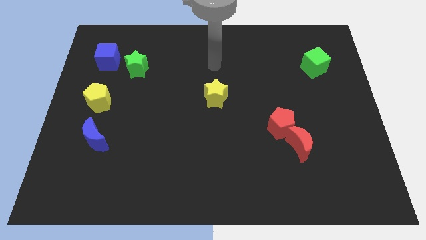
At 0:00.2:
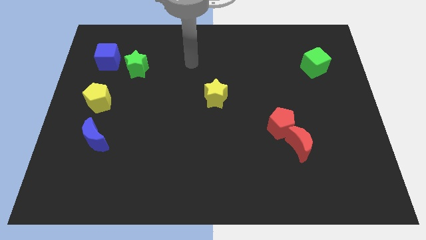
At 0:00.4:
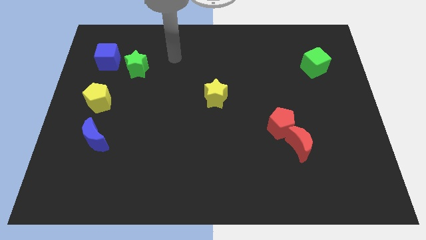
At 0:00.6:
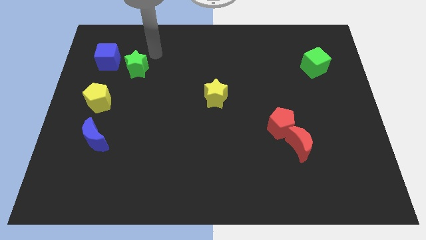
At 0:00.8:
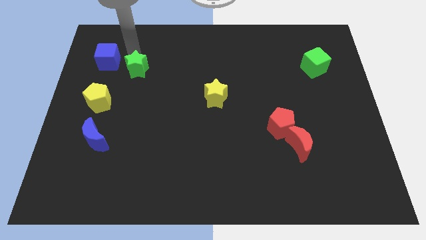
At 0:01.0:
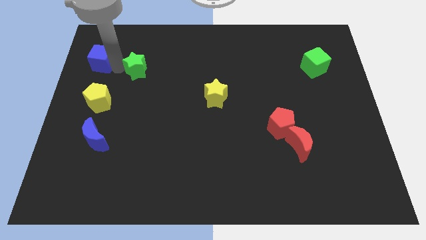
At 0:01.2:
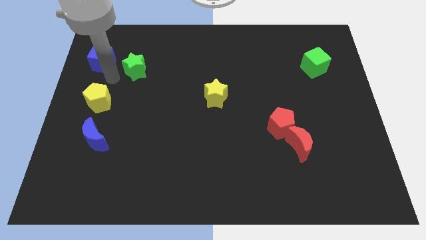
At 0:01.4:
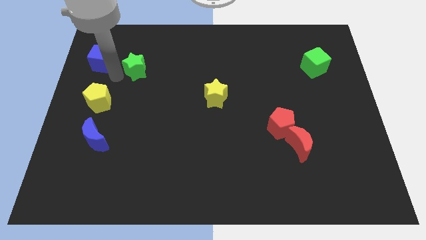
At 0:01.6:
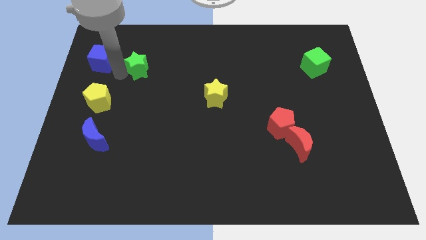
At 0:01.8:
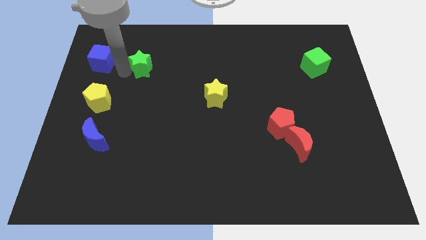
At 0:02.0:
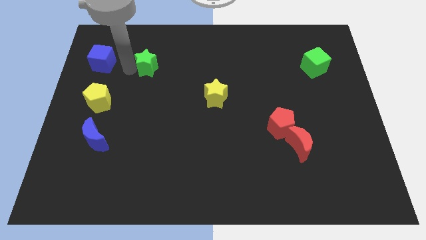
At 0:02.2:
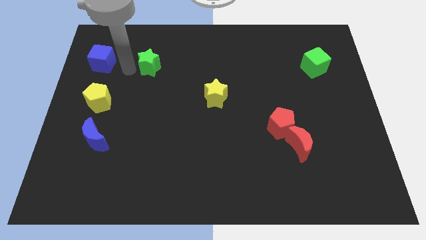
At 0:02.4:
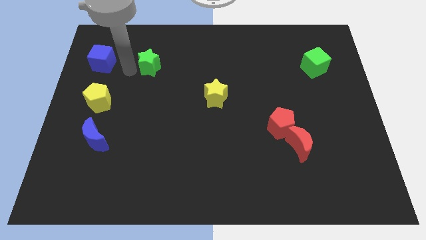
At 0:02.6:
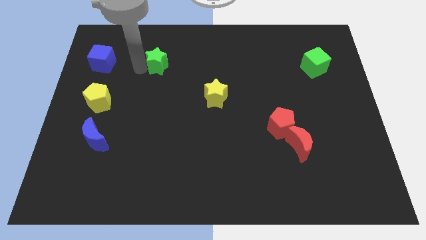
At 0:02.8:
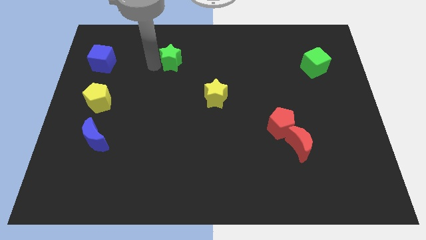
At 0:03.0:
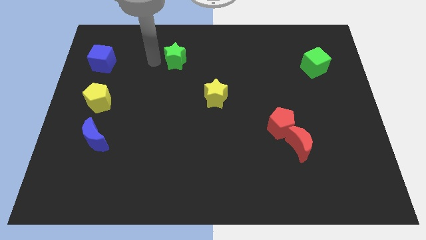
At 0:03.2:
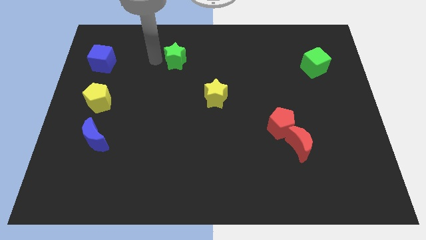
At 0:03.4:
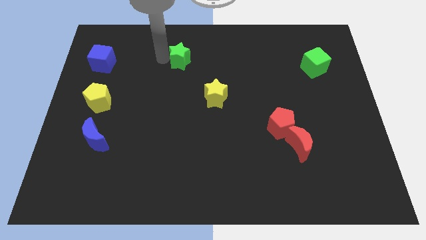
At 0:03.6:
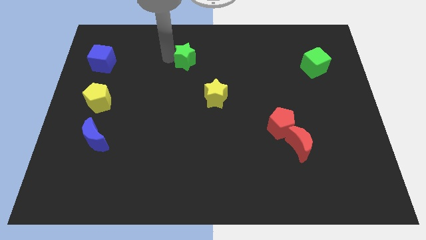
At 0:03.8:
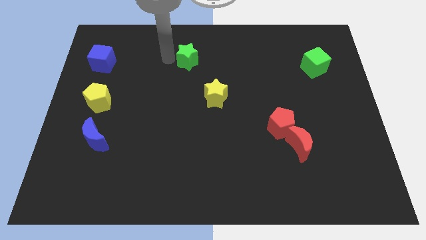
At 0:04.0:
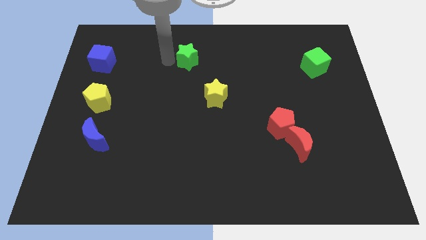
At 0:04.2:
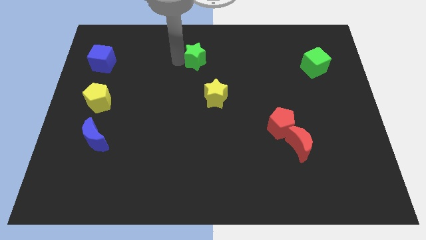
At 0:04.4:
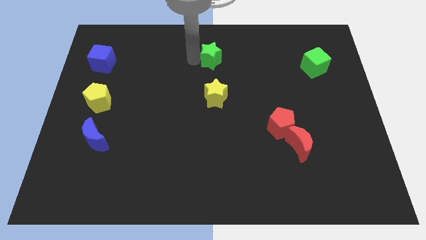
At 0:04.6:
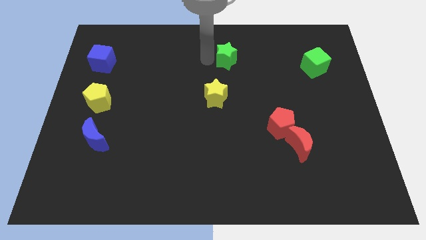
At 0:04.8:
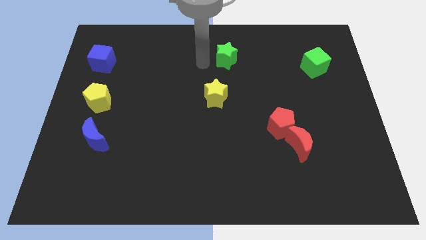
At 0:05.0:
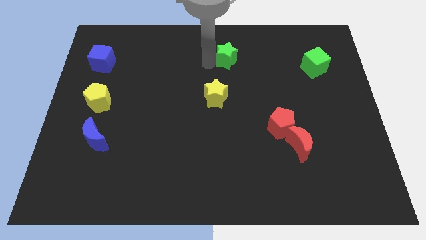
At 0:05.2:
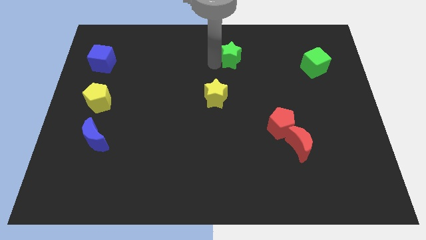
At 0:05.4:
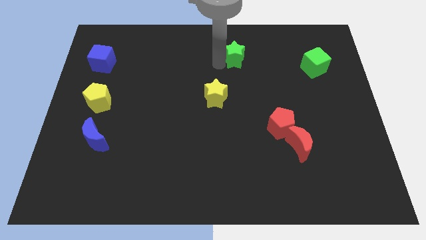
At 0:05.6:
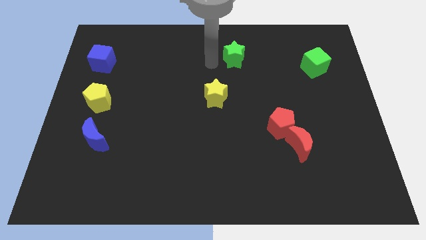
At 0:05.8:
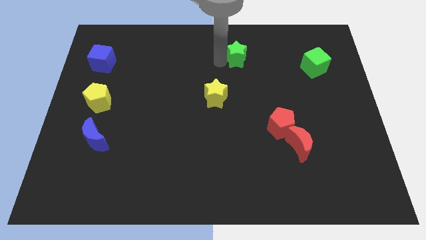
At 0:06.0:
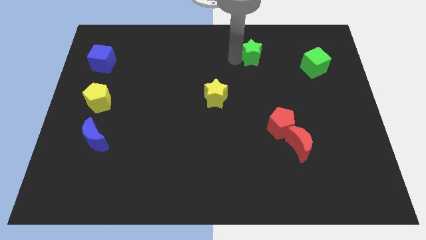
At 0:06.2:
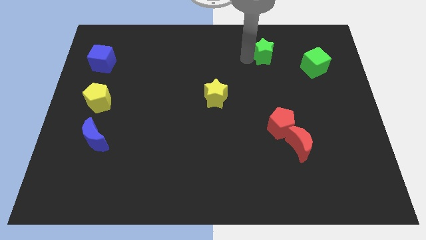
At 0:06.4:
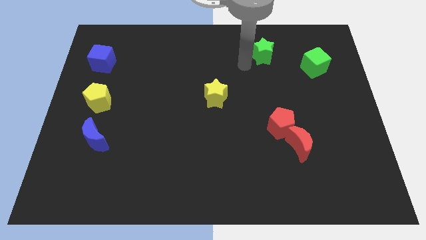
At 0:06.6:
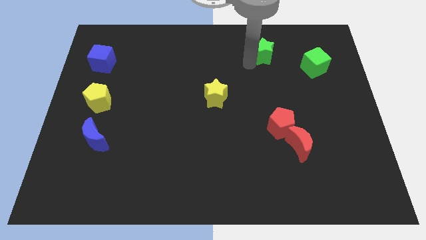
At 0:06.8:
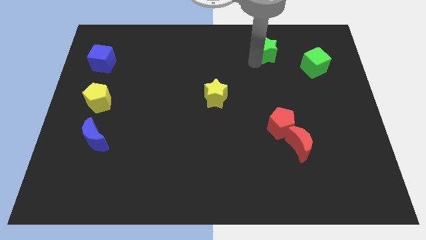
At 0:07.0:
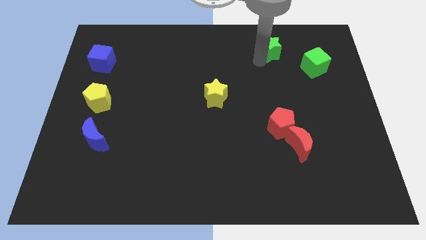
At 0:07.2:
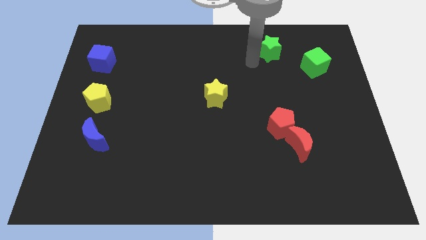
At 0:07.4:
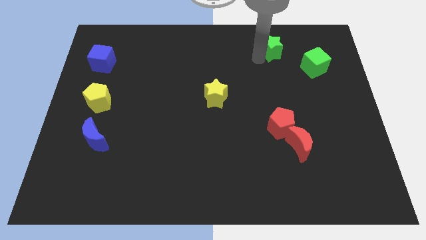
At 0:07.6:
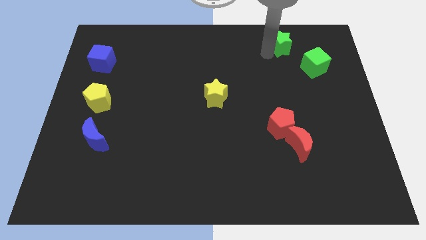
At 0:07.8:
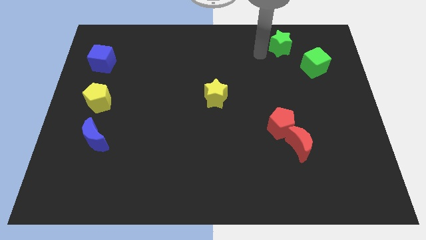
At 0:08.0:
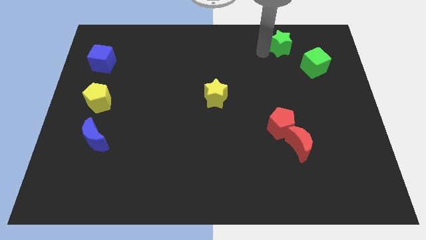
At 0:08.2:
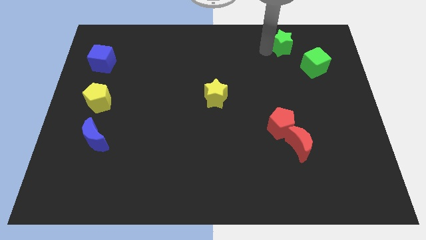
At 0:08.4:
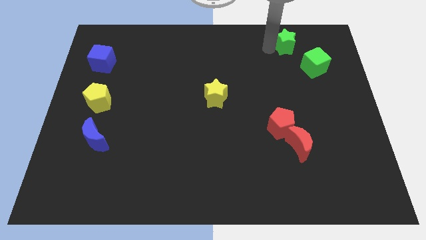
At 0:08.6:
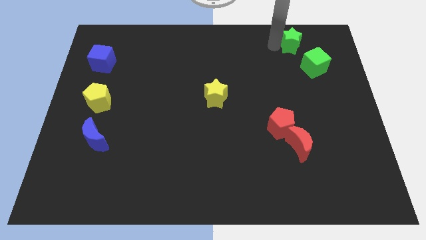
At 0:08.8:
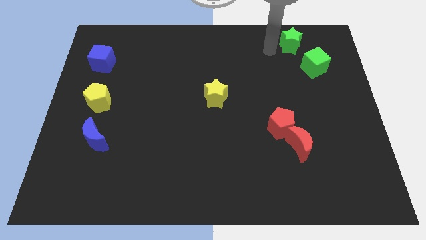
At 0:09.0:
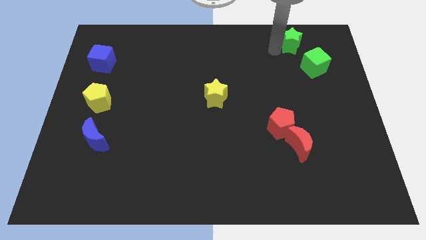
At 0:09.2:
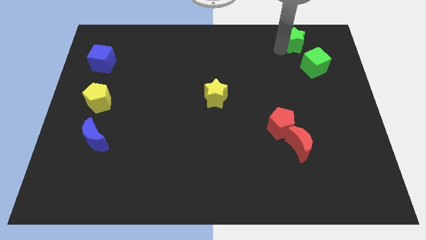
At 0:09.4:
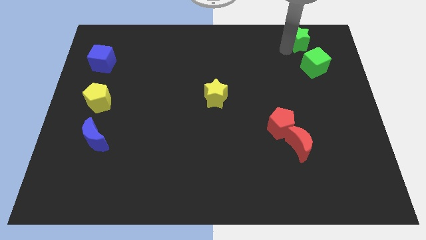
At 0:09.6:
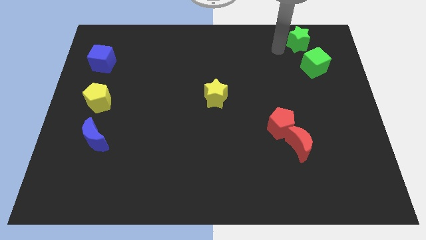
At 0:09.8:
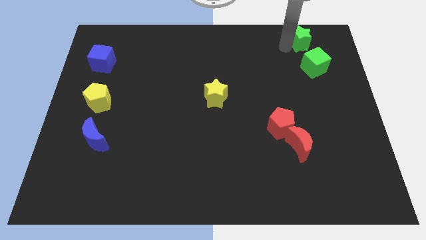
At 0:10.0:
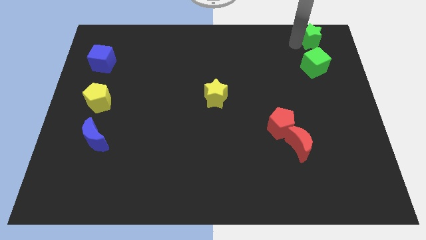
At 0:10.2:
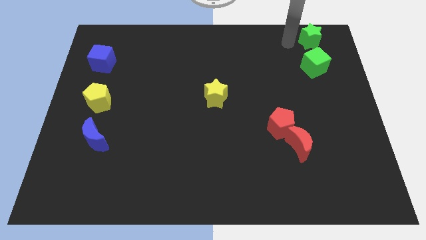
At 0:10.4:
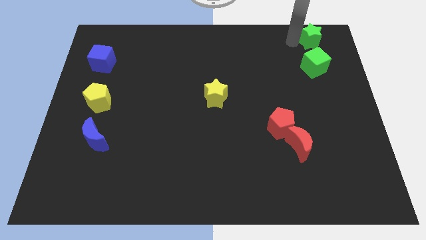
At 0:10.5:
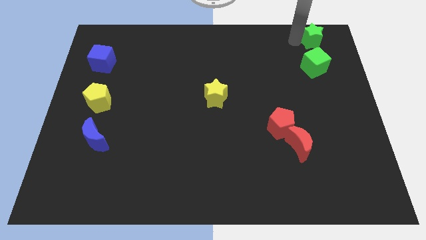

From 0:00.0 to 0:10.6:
put the green star to the top right

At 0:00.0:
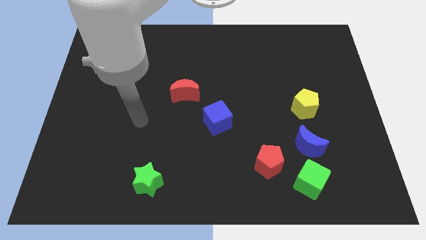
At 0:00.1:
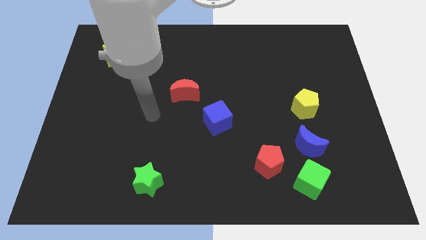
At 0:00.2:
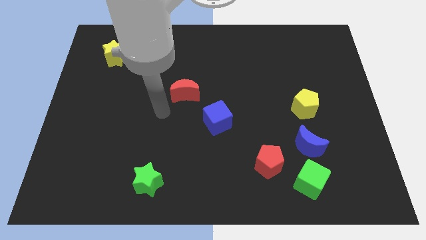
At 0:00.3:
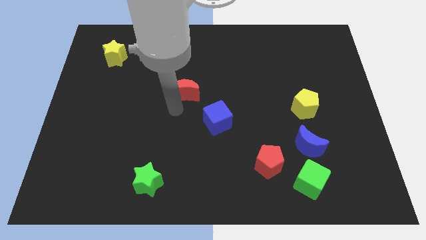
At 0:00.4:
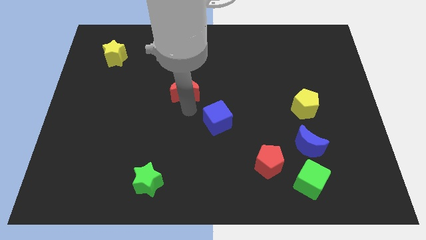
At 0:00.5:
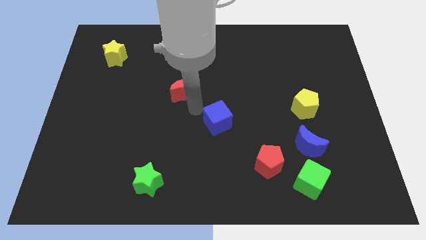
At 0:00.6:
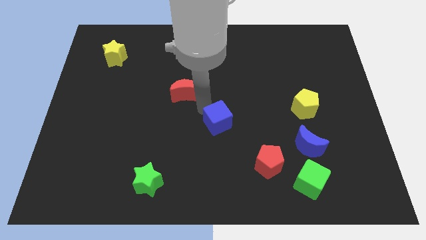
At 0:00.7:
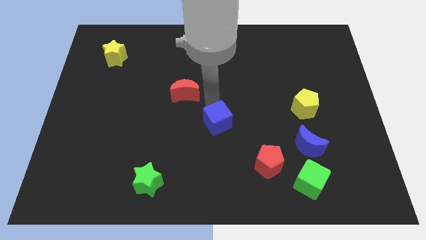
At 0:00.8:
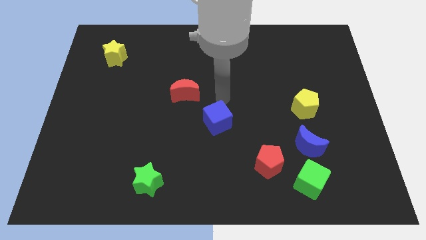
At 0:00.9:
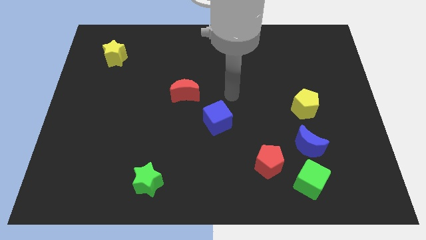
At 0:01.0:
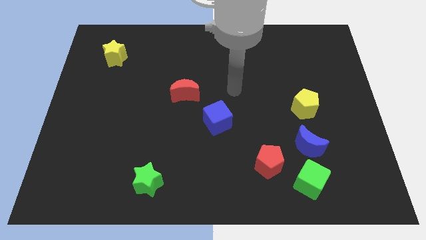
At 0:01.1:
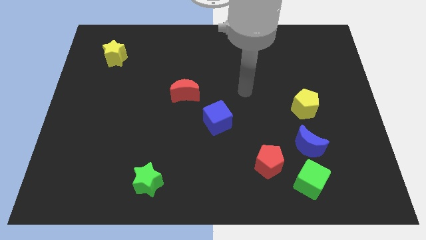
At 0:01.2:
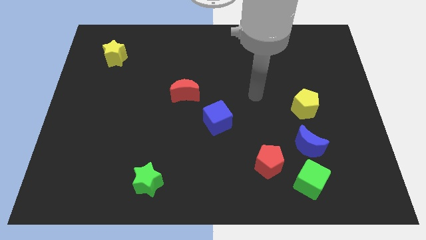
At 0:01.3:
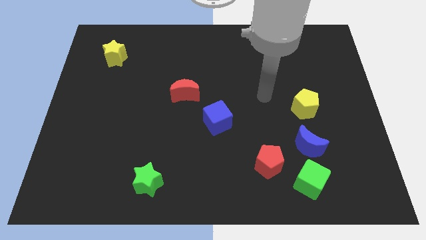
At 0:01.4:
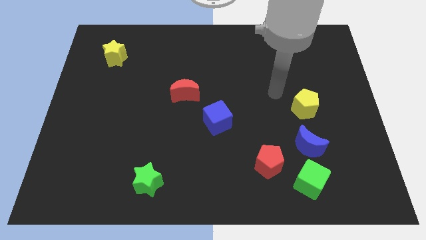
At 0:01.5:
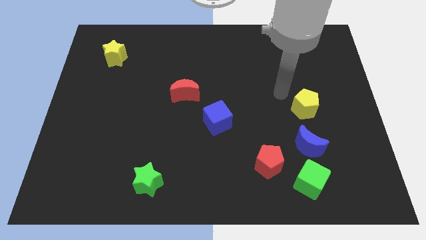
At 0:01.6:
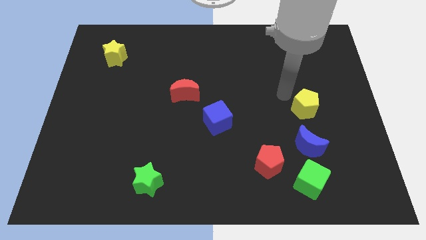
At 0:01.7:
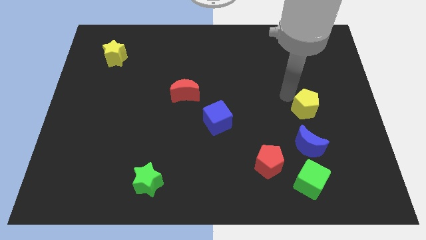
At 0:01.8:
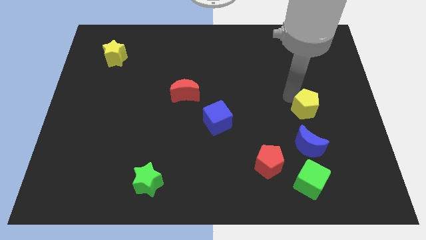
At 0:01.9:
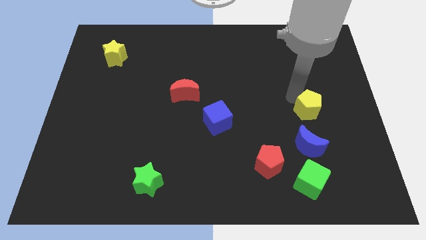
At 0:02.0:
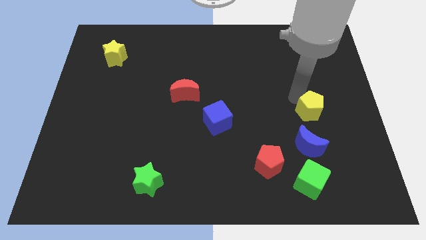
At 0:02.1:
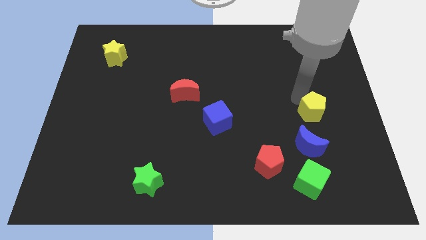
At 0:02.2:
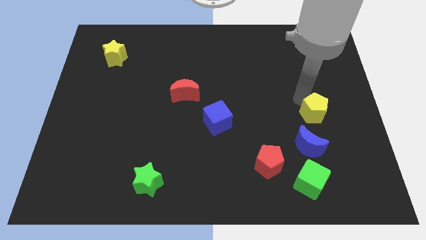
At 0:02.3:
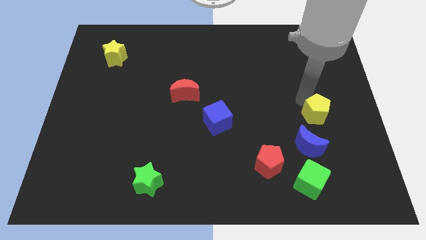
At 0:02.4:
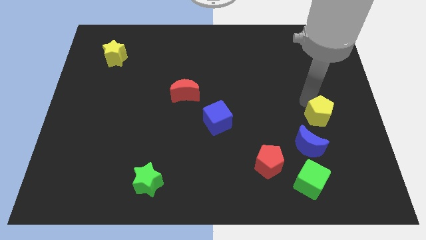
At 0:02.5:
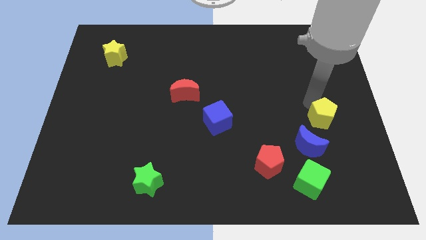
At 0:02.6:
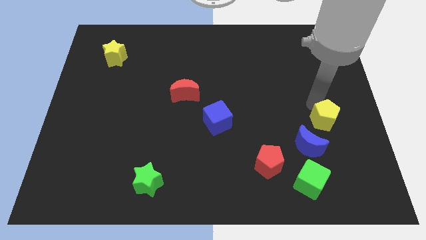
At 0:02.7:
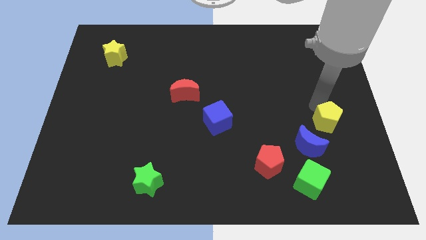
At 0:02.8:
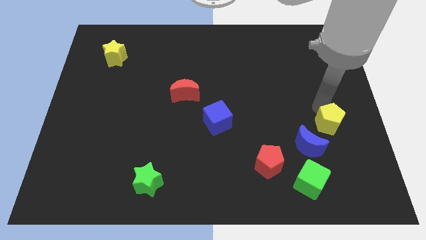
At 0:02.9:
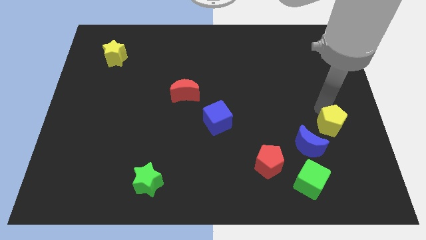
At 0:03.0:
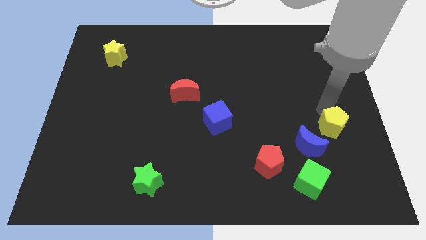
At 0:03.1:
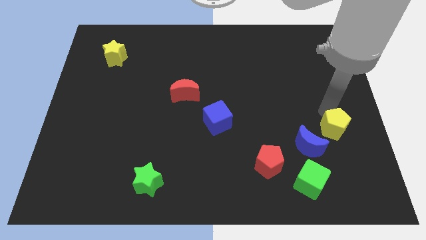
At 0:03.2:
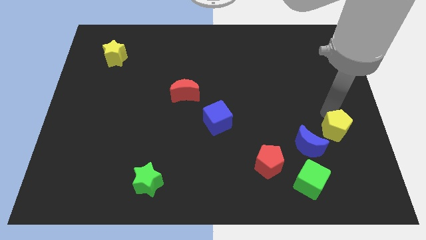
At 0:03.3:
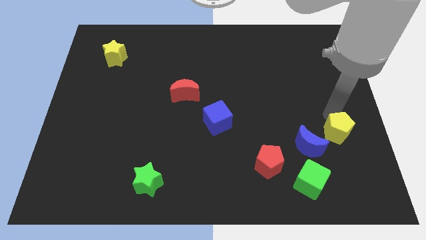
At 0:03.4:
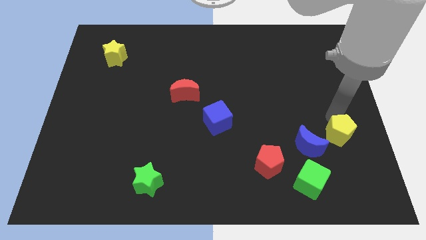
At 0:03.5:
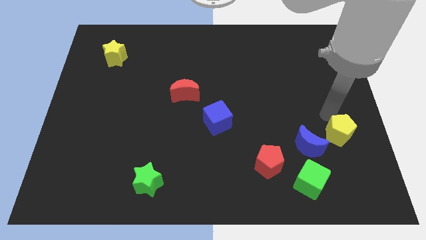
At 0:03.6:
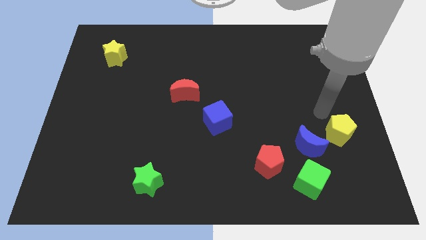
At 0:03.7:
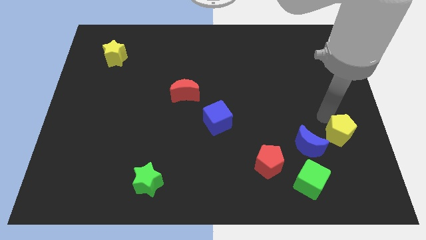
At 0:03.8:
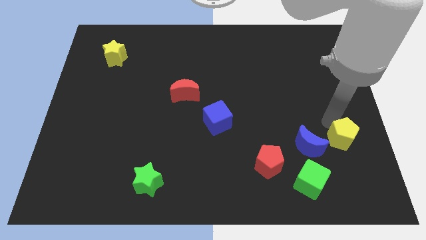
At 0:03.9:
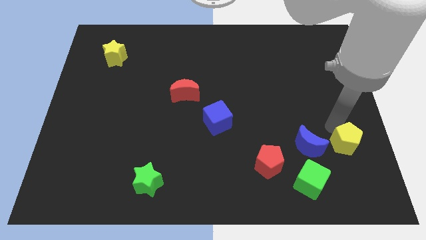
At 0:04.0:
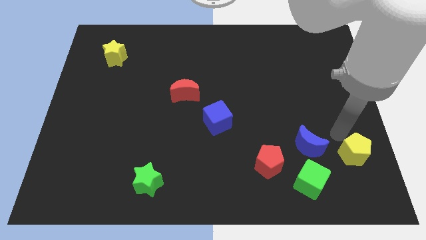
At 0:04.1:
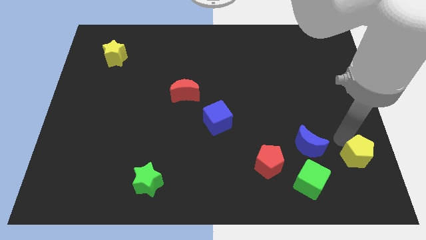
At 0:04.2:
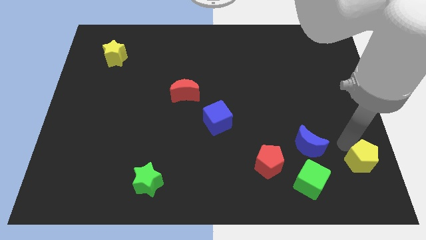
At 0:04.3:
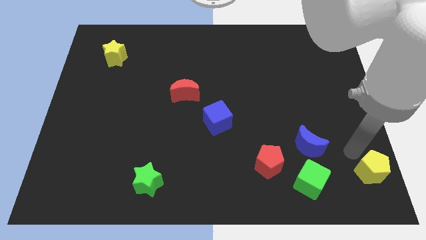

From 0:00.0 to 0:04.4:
push the yellow pentagon to the bottom right of the board
